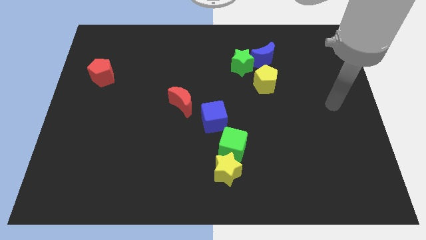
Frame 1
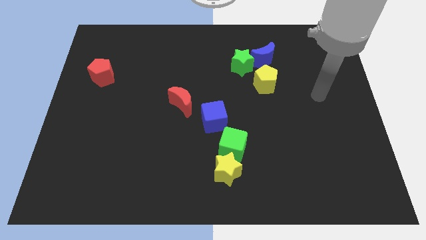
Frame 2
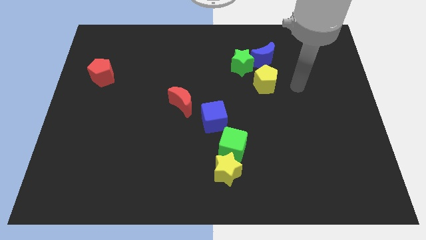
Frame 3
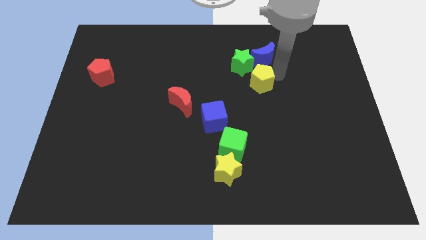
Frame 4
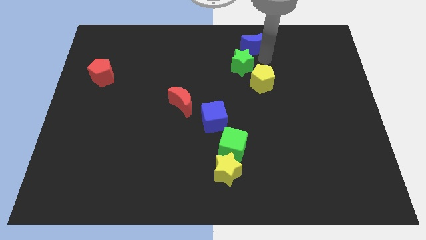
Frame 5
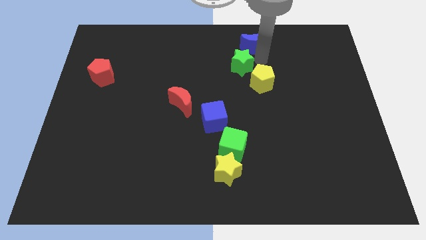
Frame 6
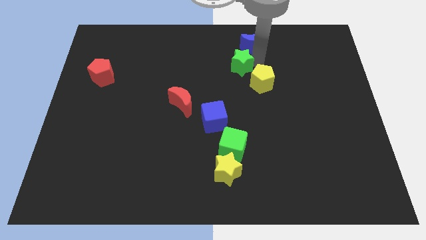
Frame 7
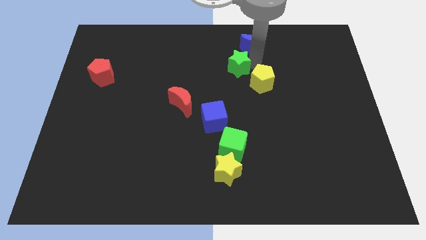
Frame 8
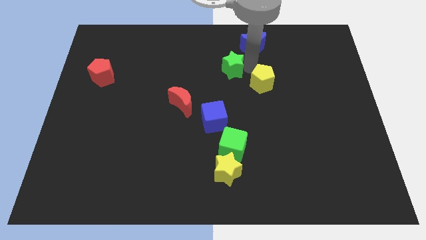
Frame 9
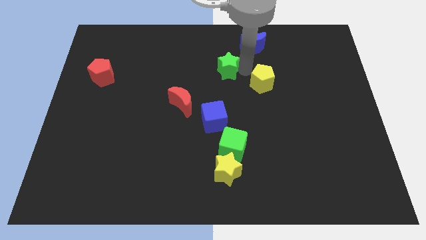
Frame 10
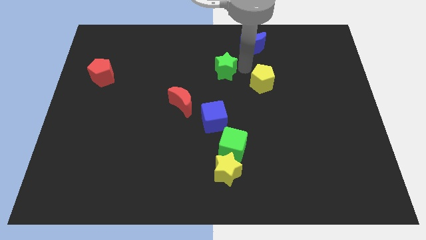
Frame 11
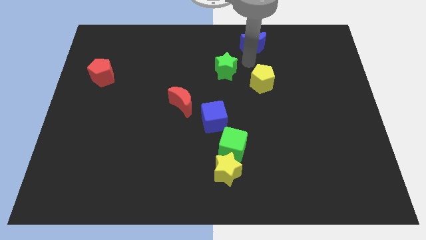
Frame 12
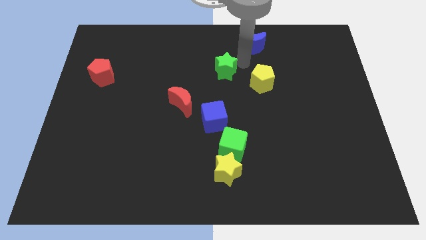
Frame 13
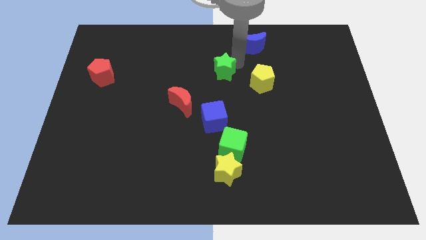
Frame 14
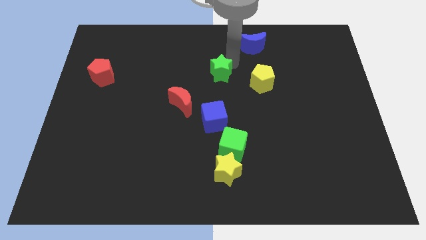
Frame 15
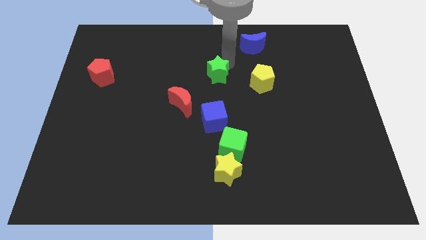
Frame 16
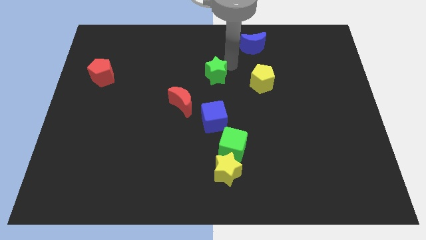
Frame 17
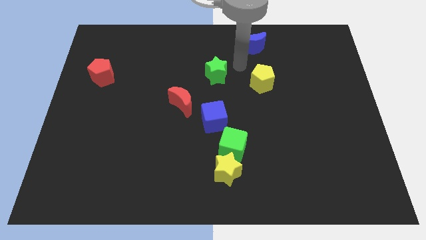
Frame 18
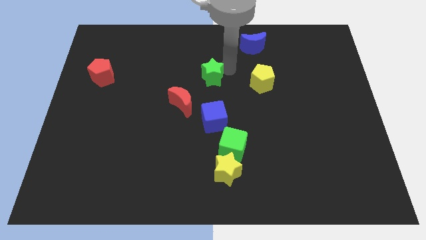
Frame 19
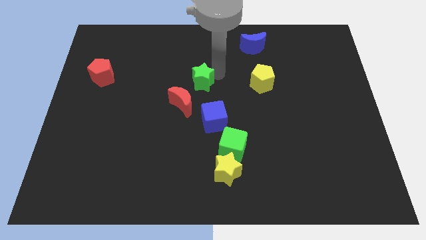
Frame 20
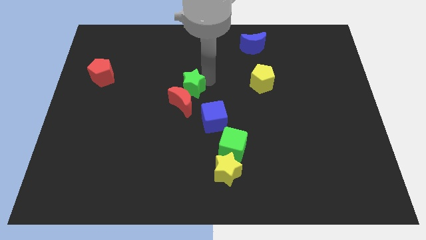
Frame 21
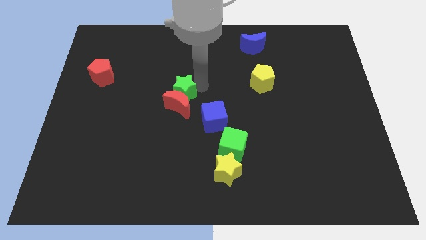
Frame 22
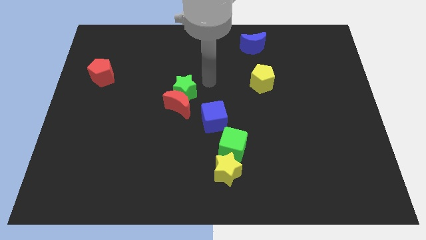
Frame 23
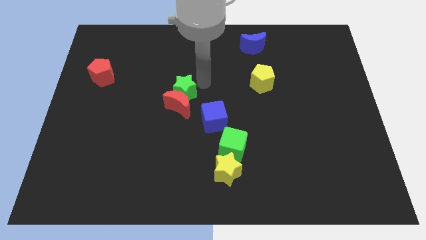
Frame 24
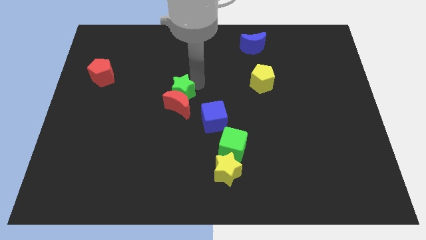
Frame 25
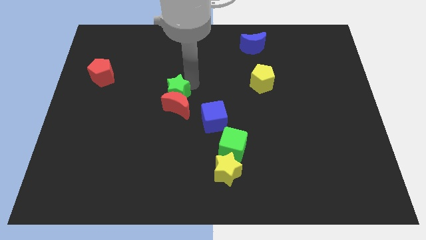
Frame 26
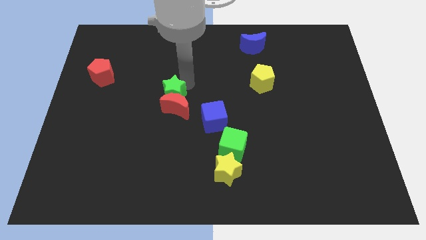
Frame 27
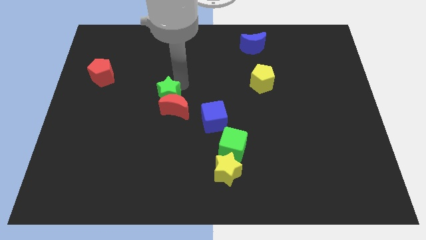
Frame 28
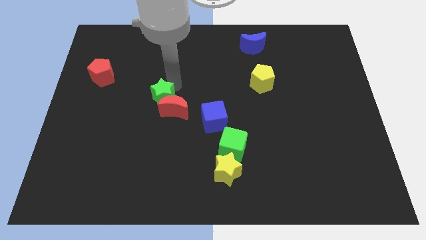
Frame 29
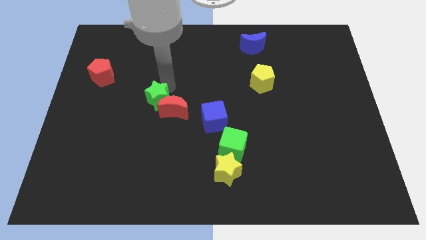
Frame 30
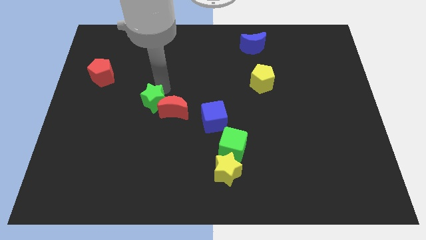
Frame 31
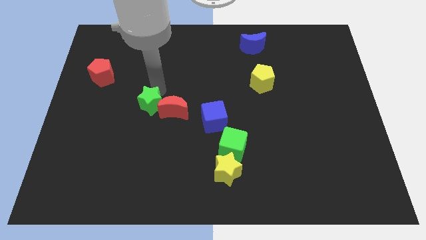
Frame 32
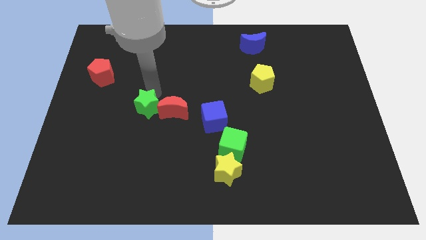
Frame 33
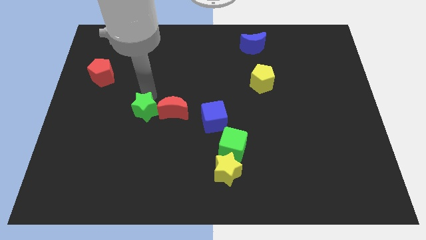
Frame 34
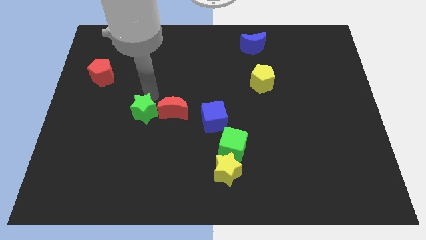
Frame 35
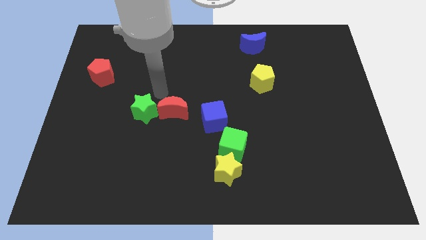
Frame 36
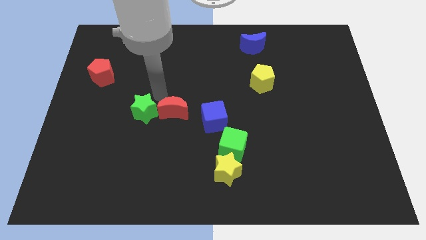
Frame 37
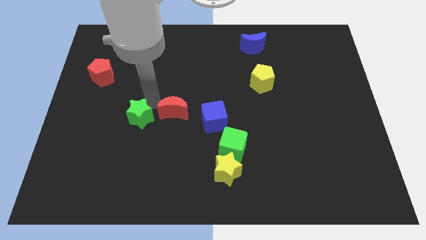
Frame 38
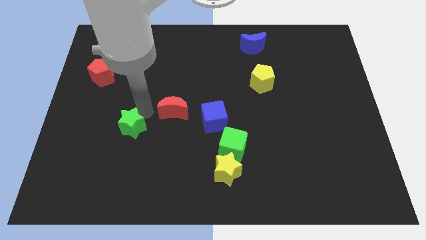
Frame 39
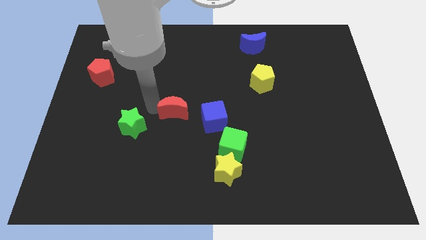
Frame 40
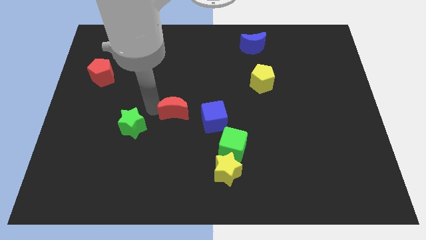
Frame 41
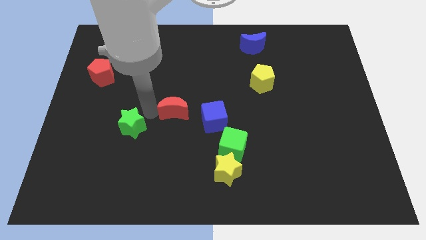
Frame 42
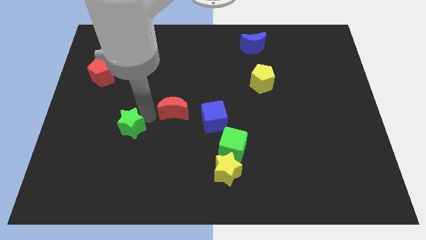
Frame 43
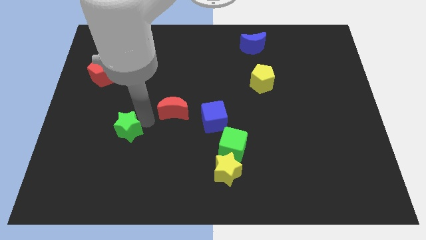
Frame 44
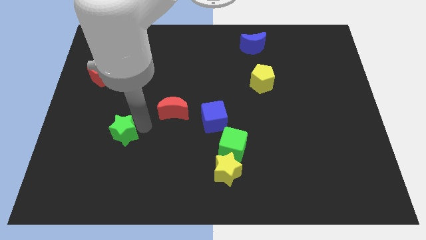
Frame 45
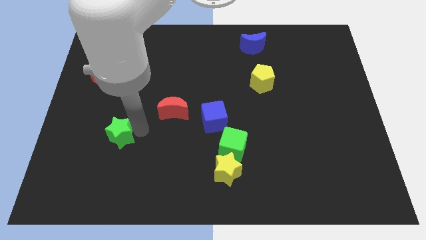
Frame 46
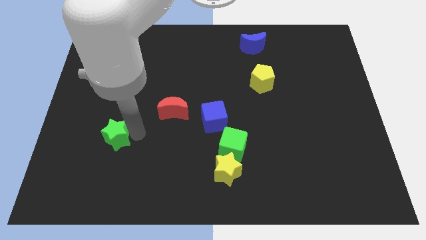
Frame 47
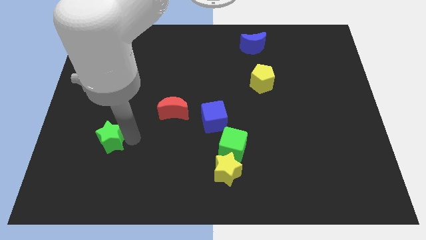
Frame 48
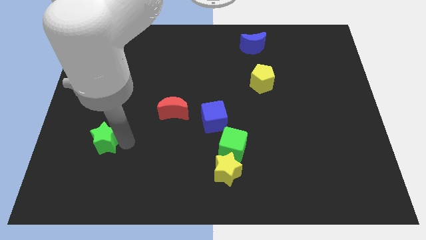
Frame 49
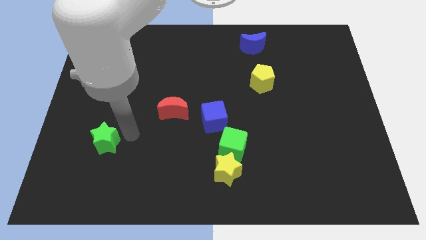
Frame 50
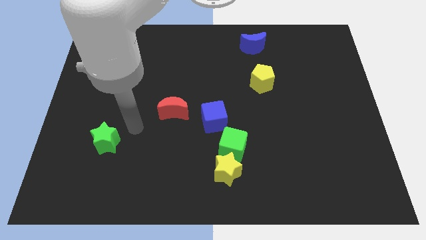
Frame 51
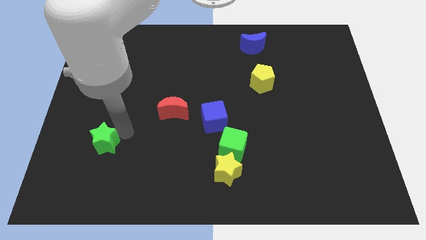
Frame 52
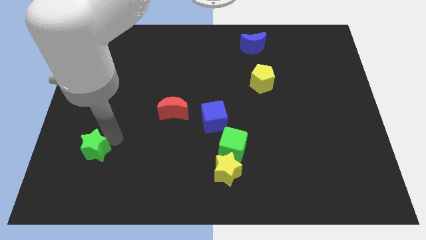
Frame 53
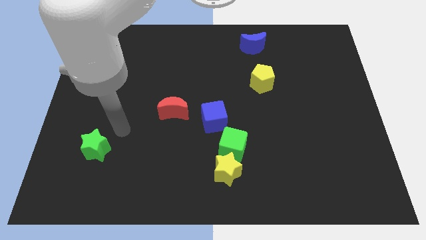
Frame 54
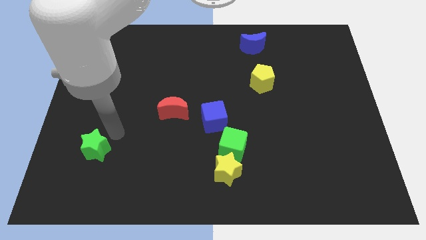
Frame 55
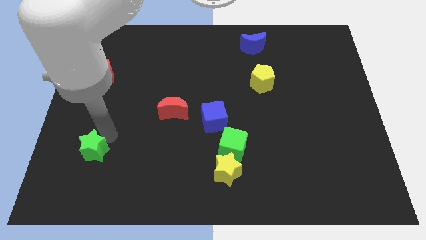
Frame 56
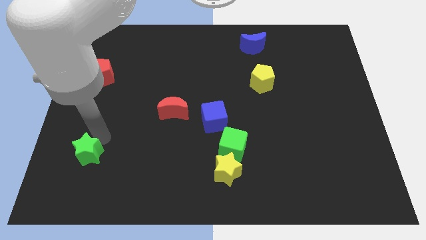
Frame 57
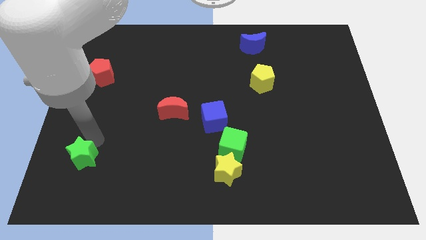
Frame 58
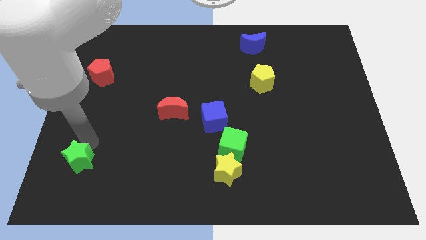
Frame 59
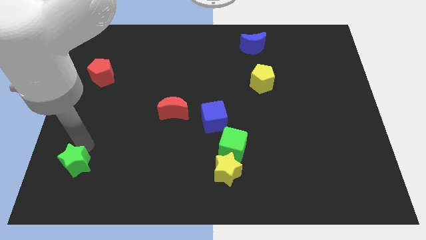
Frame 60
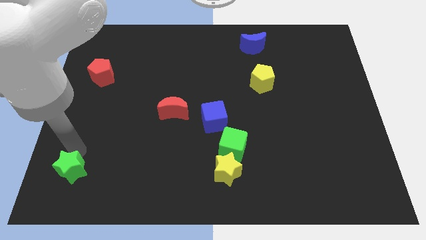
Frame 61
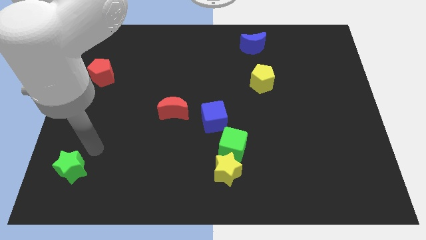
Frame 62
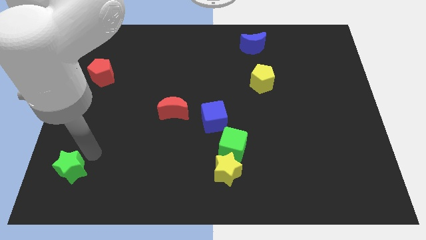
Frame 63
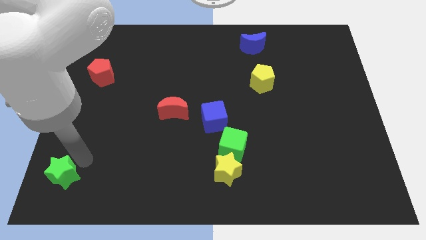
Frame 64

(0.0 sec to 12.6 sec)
move the green star to the bottom left

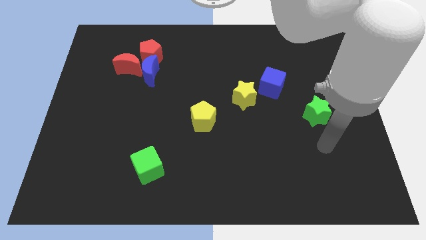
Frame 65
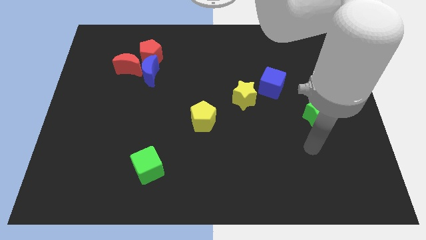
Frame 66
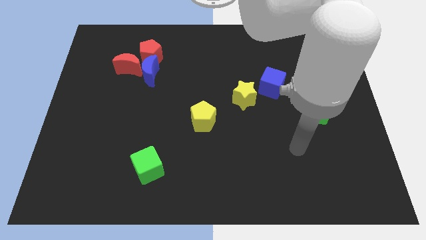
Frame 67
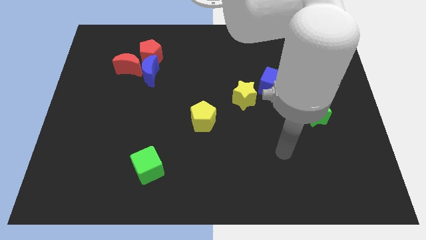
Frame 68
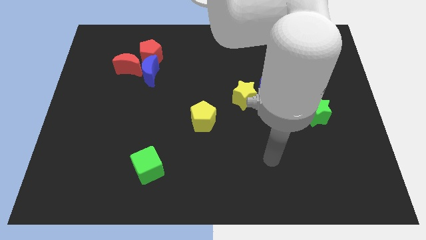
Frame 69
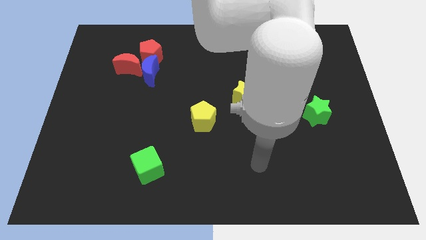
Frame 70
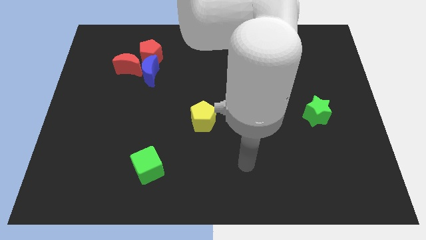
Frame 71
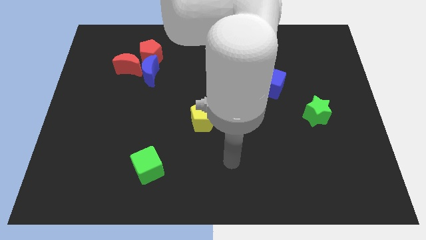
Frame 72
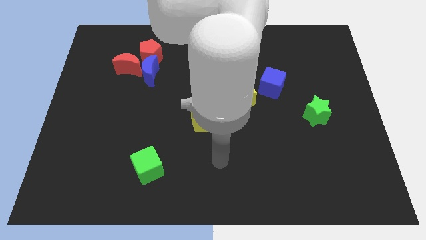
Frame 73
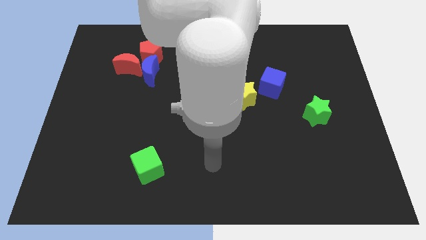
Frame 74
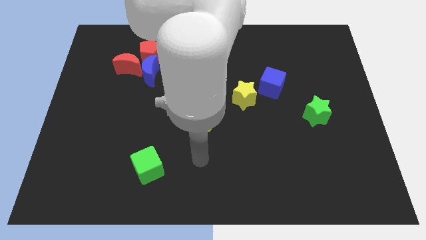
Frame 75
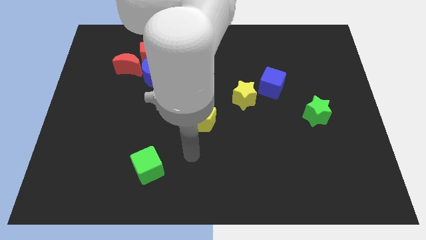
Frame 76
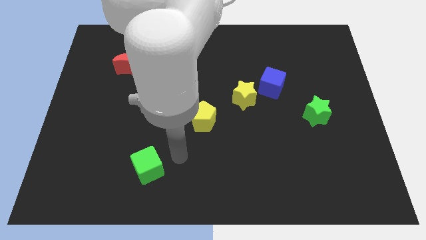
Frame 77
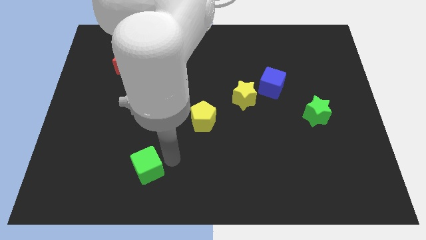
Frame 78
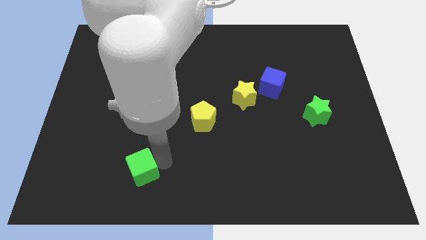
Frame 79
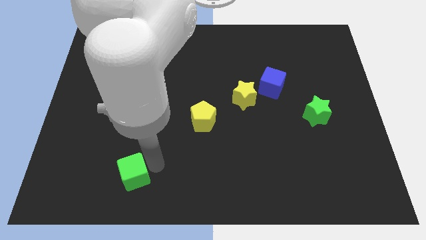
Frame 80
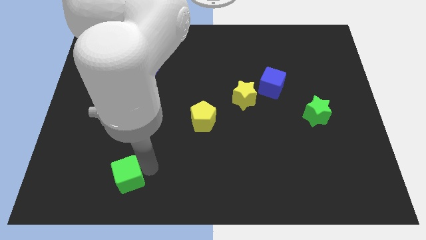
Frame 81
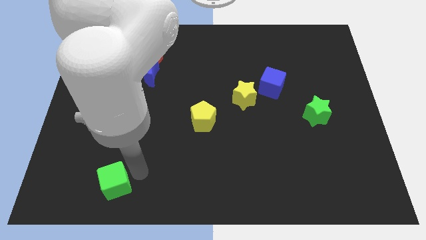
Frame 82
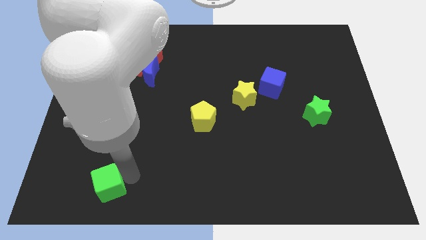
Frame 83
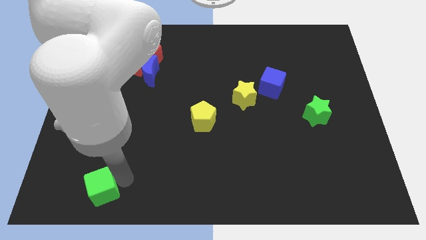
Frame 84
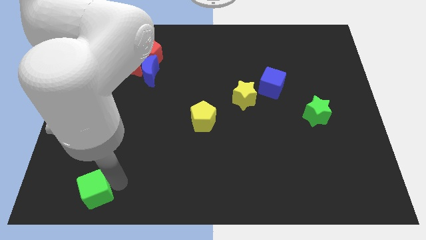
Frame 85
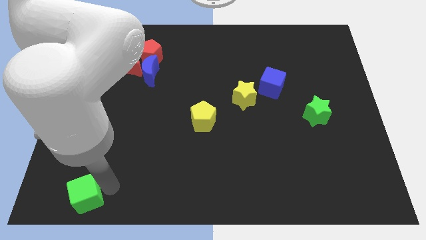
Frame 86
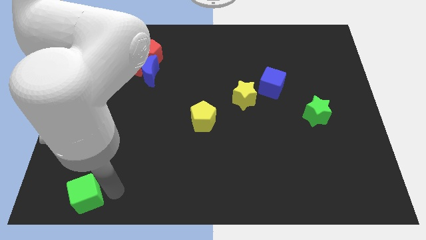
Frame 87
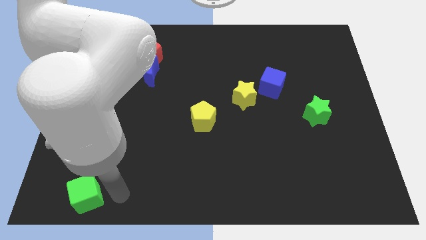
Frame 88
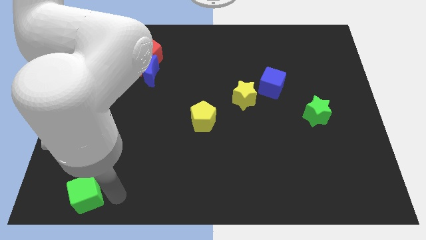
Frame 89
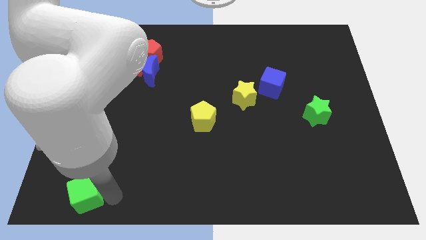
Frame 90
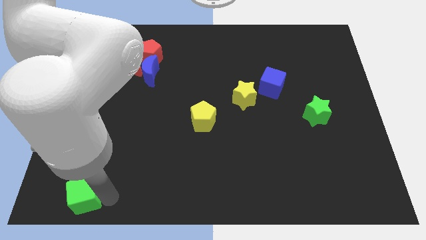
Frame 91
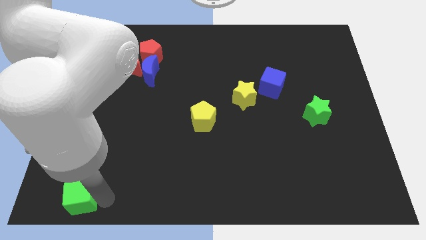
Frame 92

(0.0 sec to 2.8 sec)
put the green cube to the lower left corner
